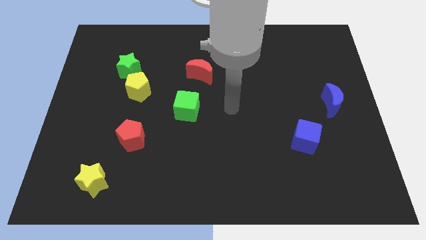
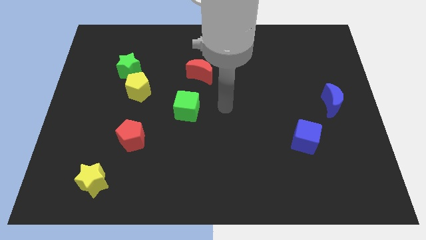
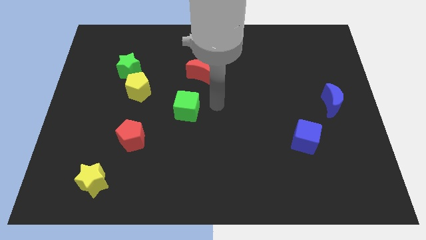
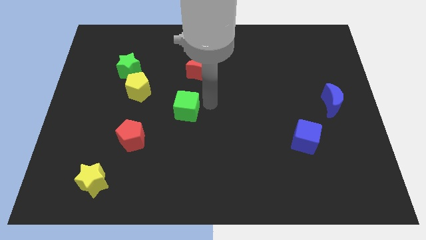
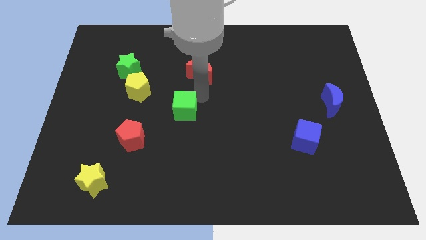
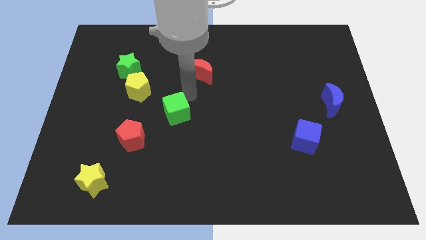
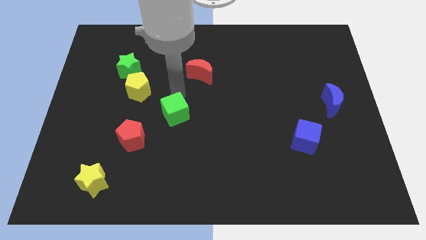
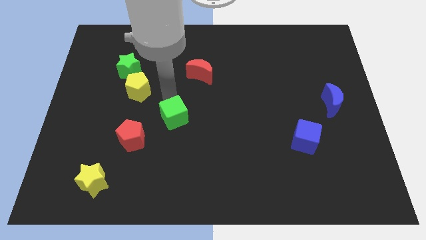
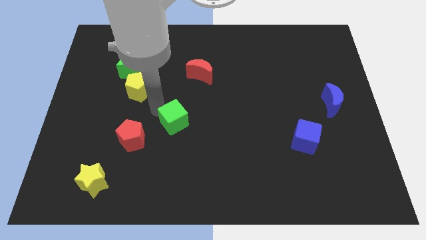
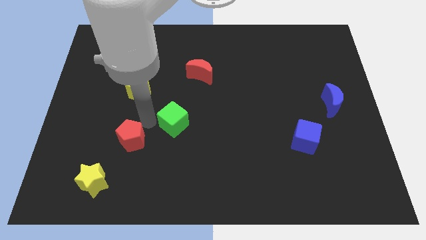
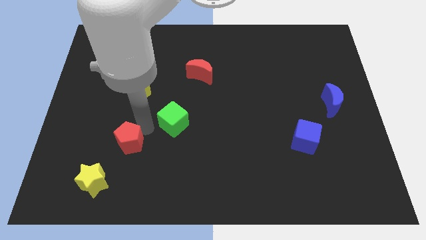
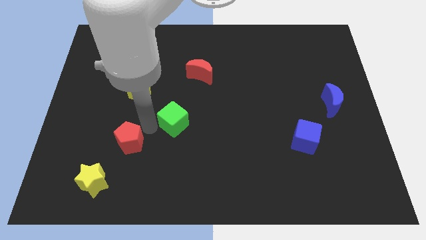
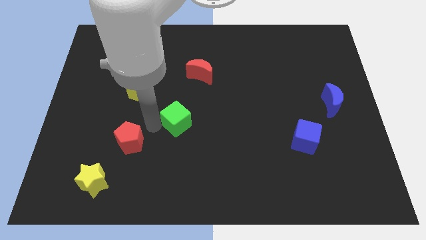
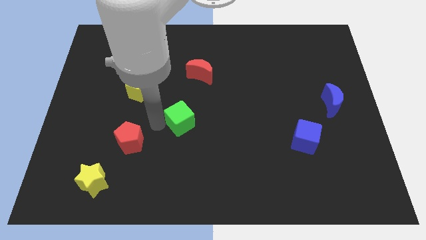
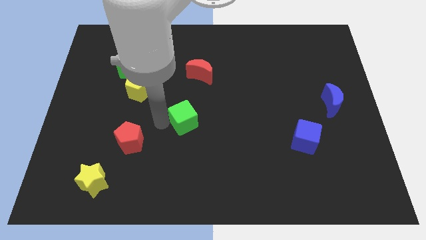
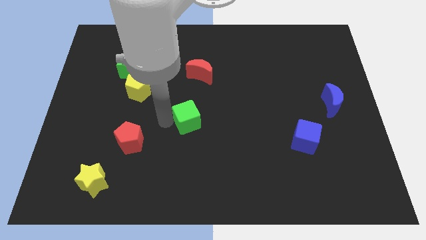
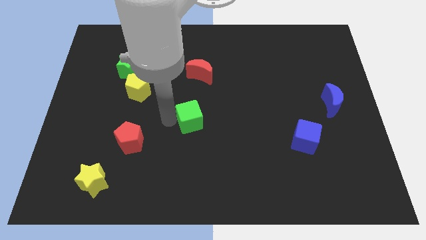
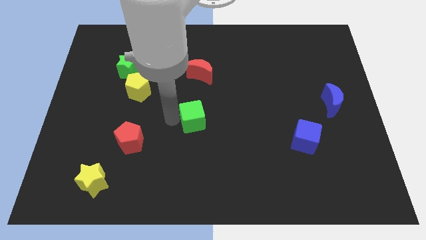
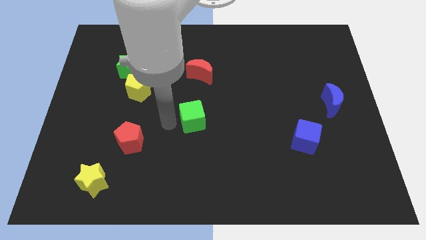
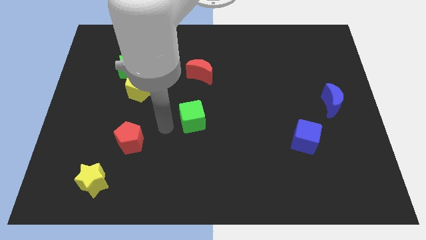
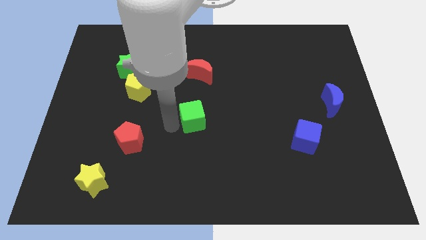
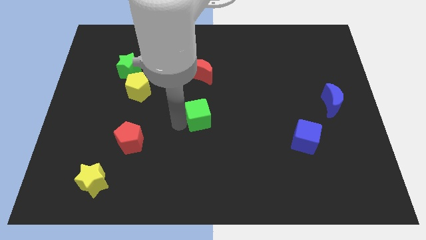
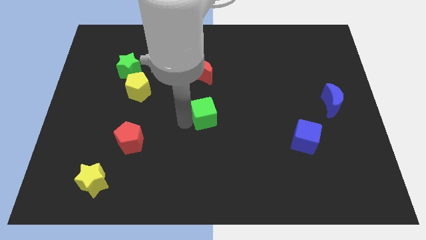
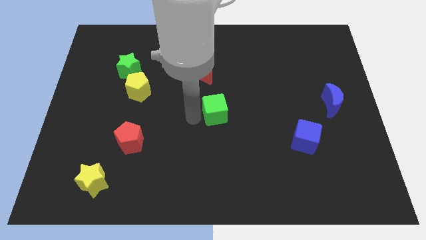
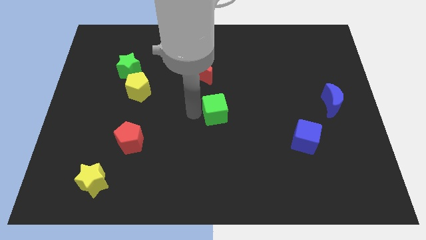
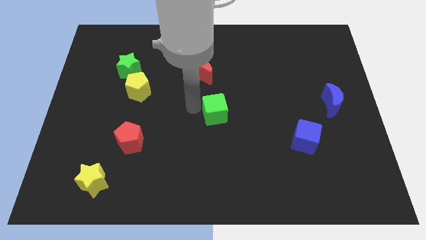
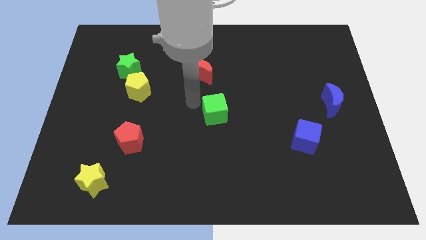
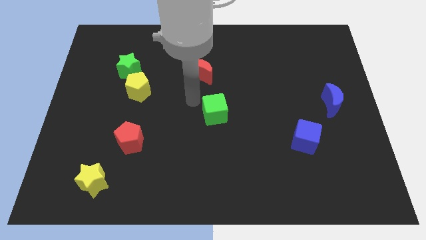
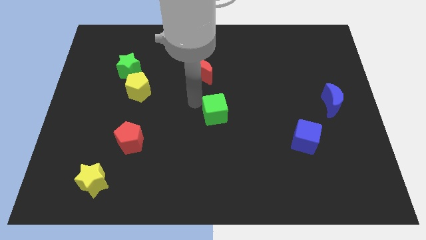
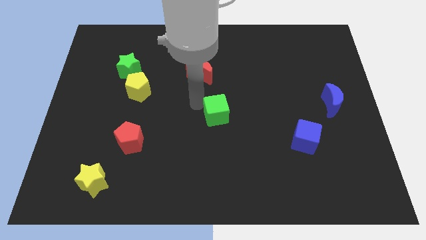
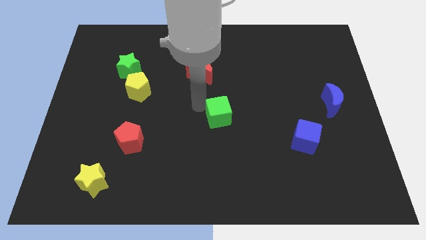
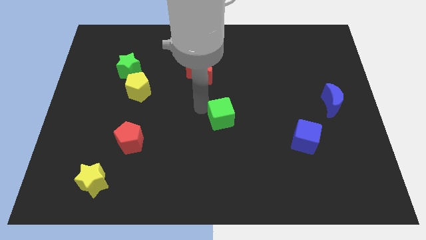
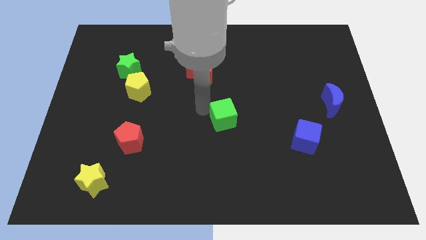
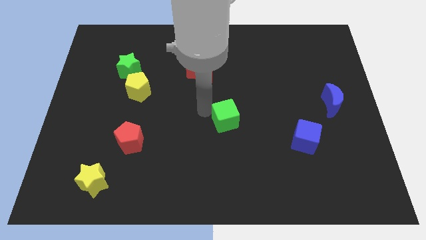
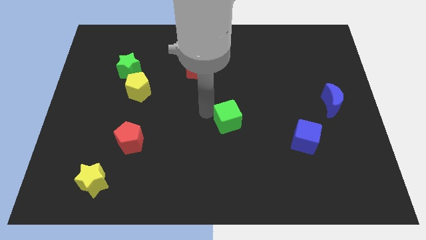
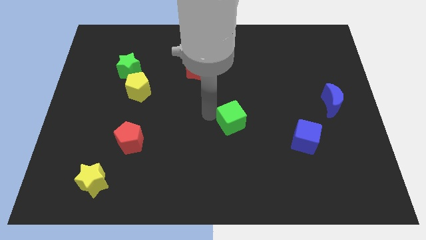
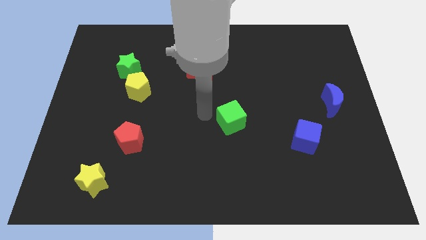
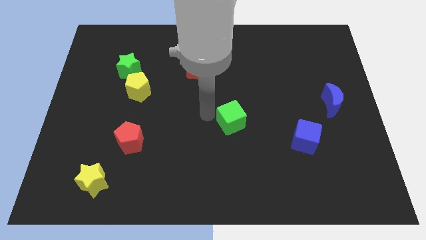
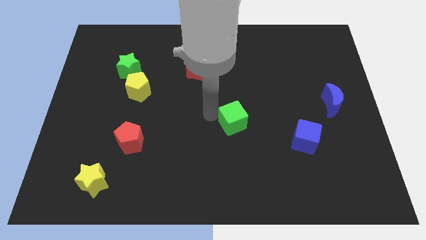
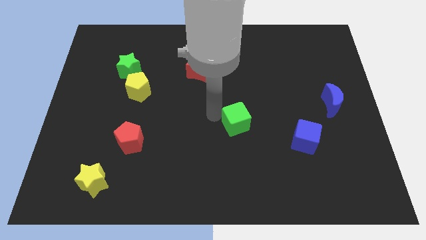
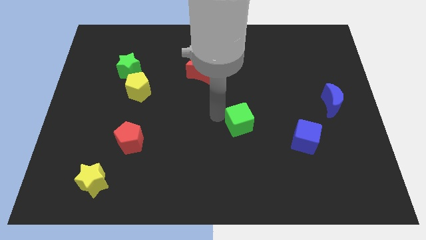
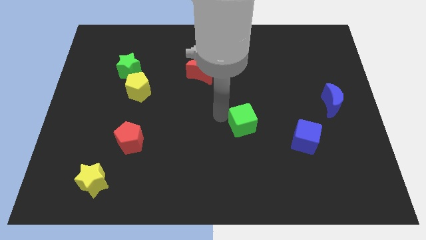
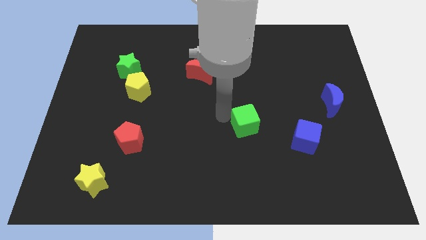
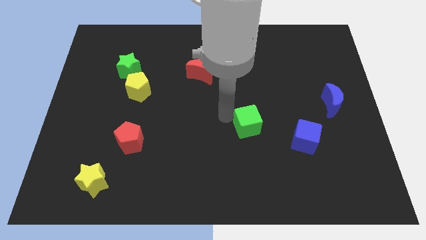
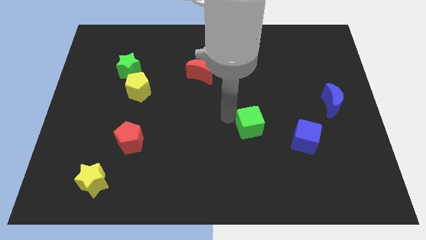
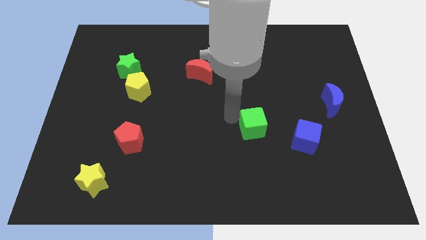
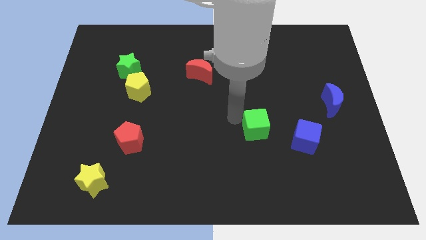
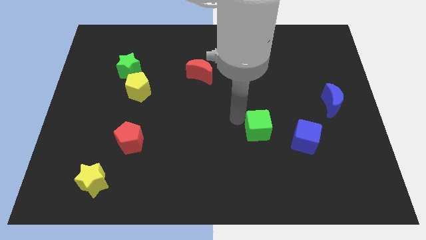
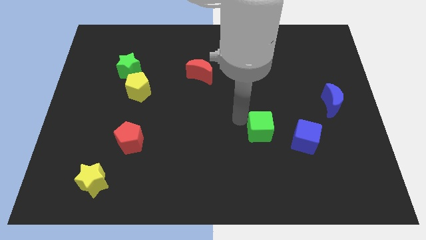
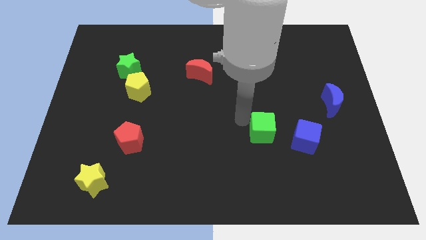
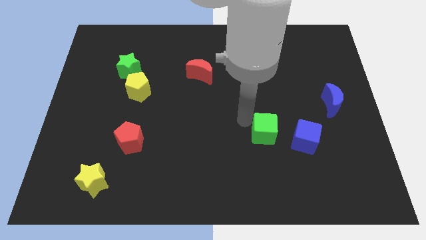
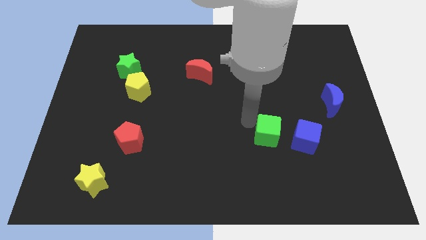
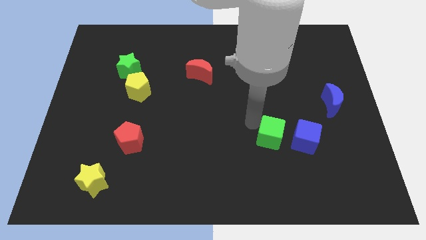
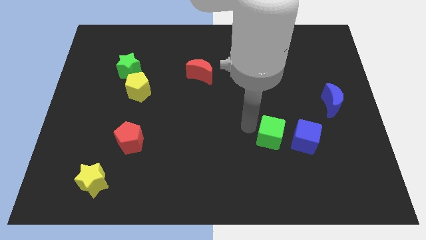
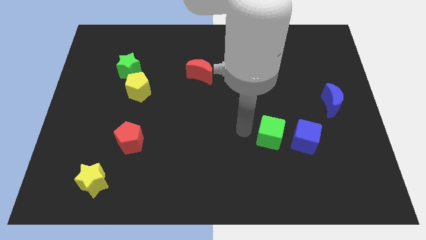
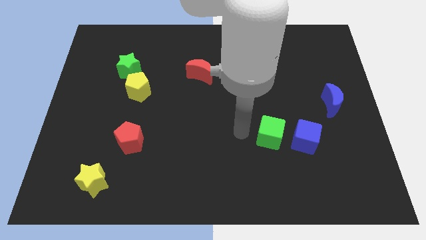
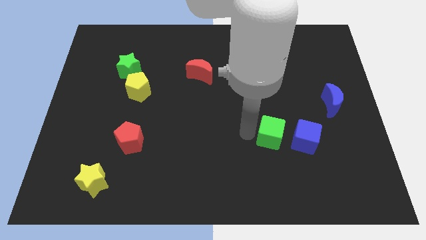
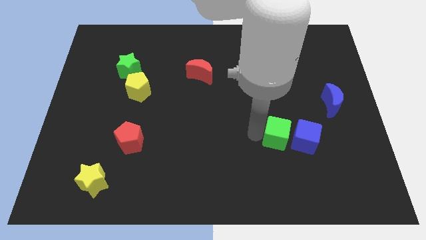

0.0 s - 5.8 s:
put the green cube close to the blue cube
